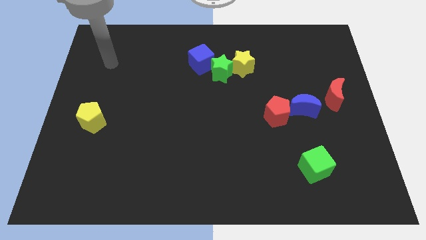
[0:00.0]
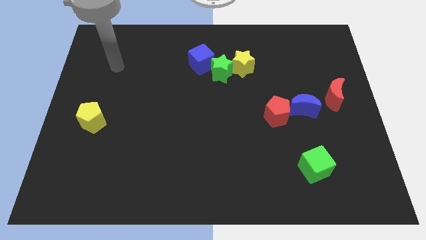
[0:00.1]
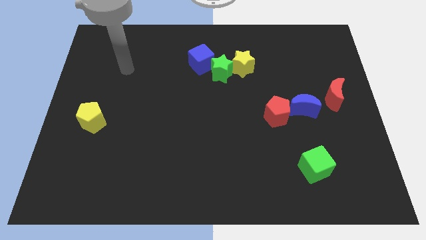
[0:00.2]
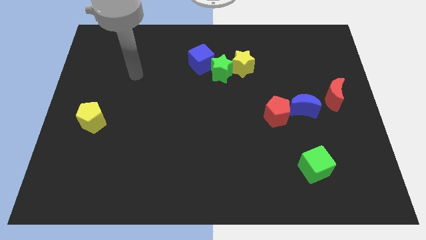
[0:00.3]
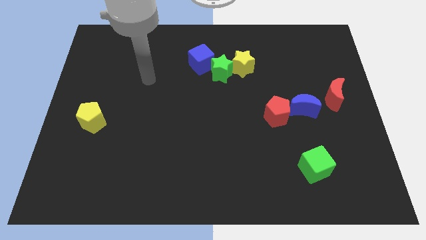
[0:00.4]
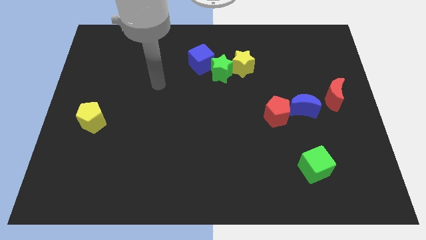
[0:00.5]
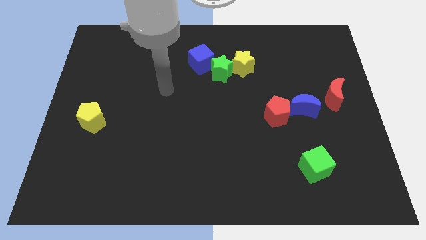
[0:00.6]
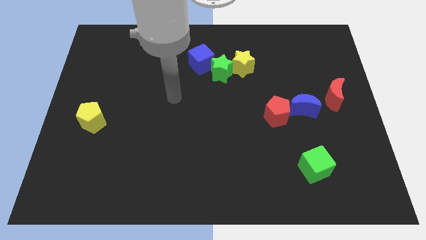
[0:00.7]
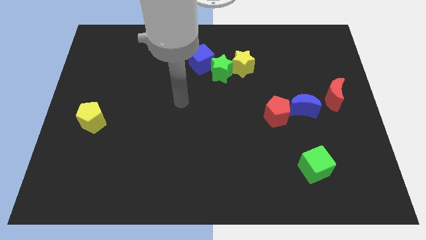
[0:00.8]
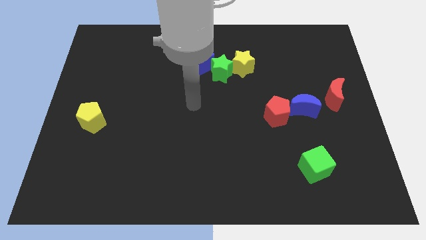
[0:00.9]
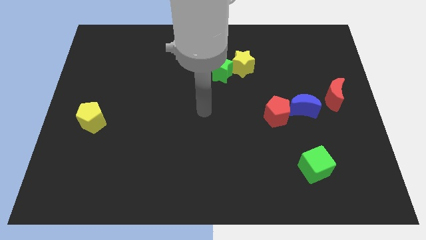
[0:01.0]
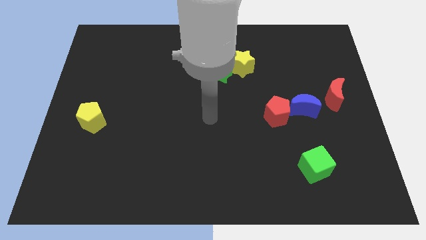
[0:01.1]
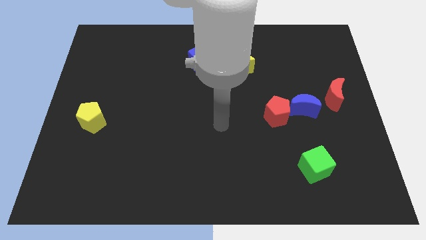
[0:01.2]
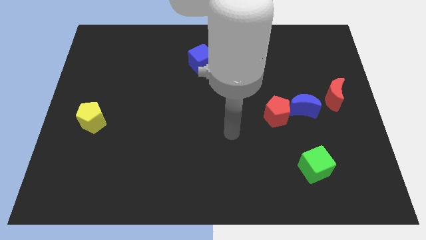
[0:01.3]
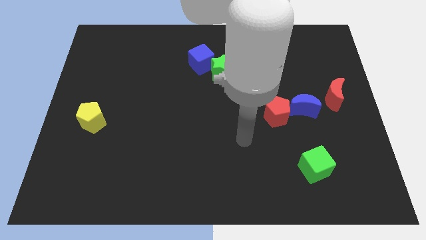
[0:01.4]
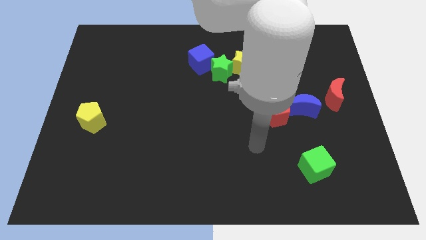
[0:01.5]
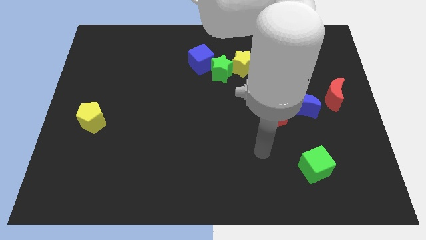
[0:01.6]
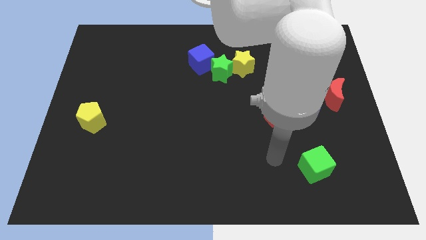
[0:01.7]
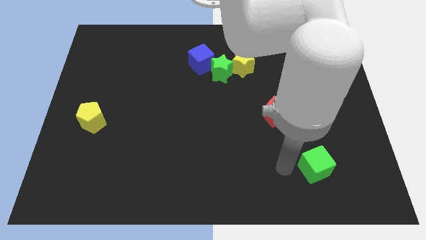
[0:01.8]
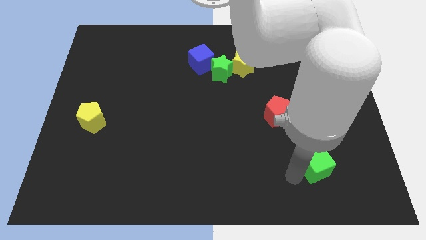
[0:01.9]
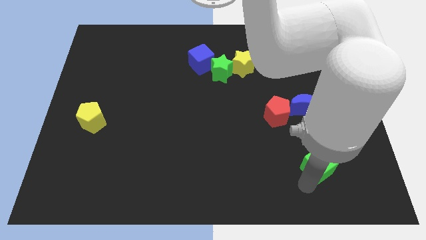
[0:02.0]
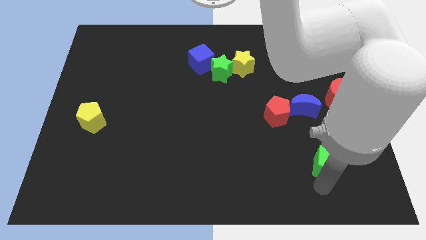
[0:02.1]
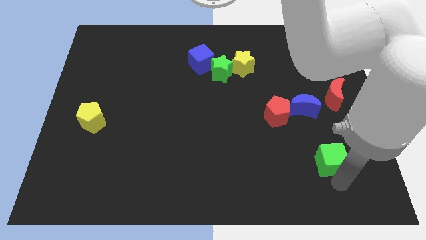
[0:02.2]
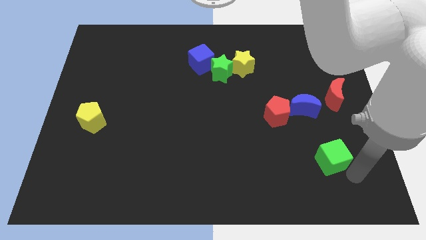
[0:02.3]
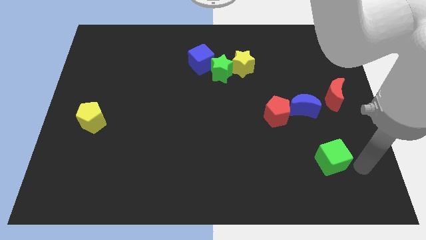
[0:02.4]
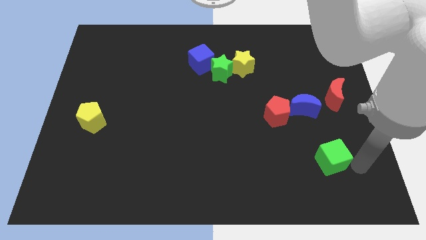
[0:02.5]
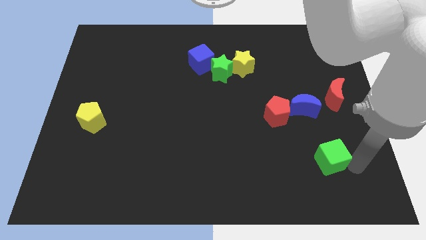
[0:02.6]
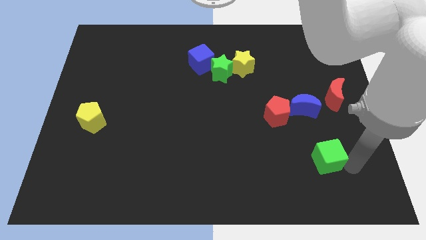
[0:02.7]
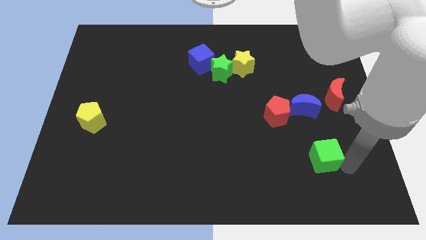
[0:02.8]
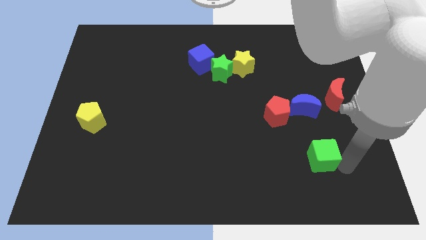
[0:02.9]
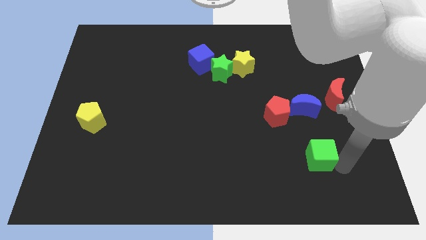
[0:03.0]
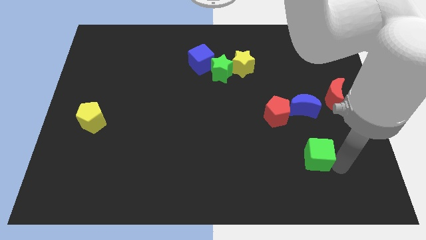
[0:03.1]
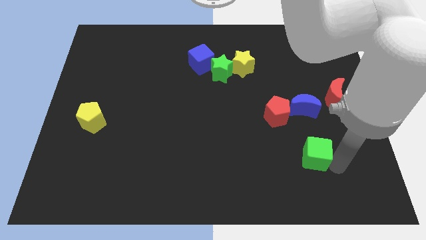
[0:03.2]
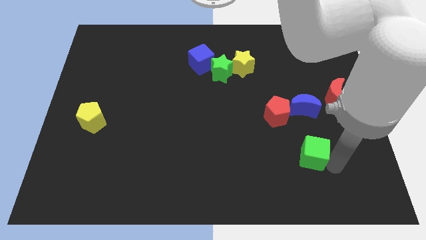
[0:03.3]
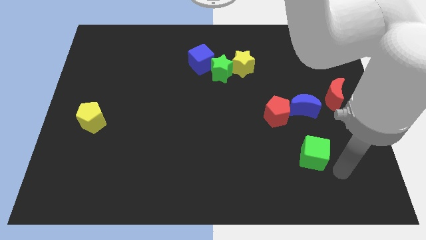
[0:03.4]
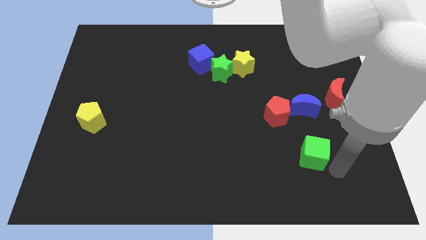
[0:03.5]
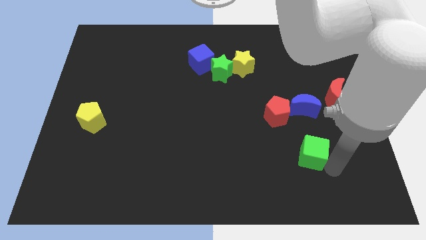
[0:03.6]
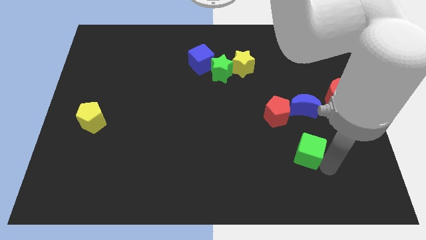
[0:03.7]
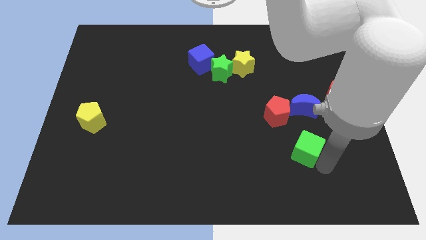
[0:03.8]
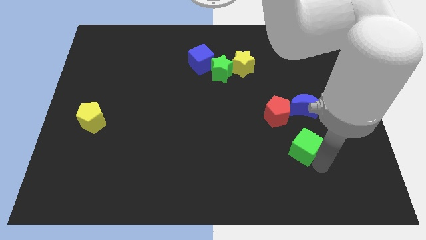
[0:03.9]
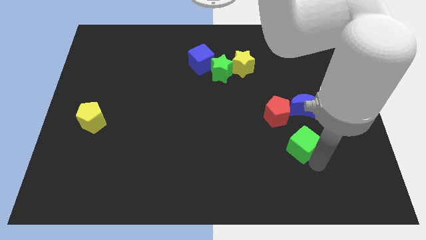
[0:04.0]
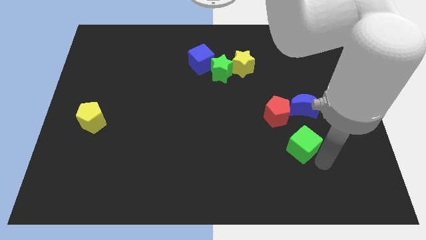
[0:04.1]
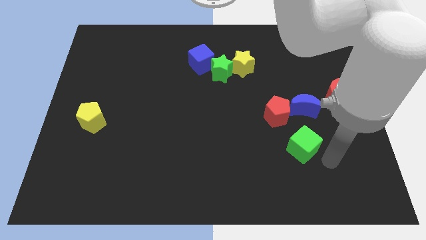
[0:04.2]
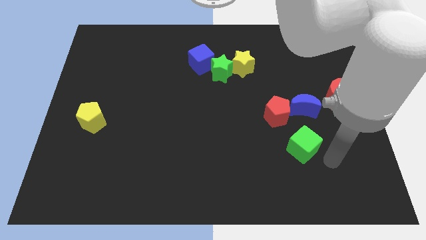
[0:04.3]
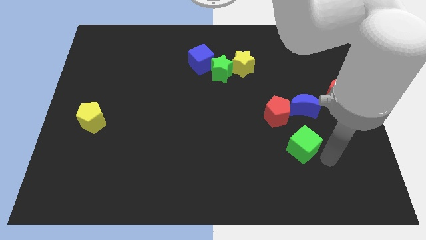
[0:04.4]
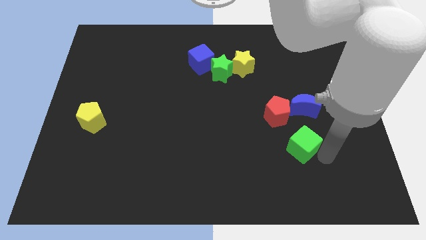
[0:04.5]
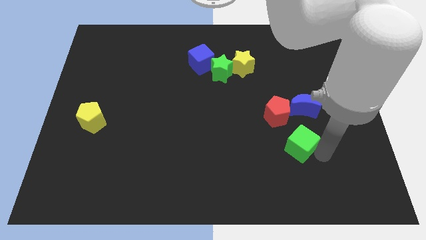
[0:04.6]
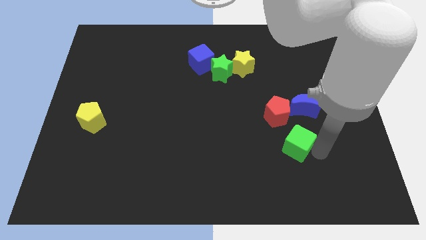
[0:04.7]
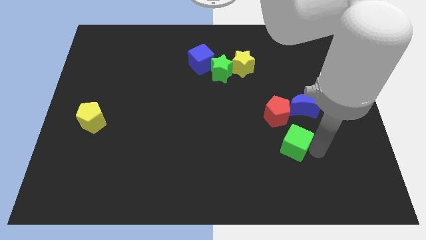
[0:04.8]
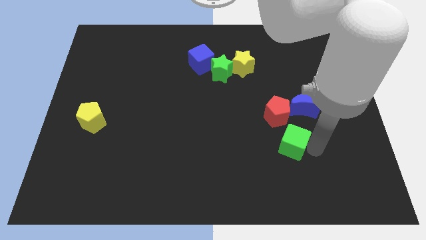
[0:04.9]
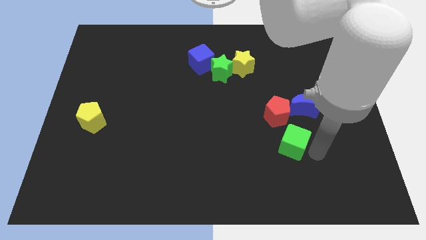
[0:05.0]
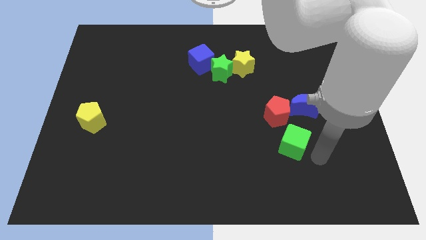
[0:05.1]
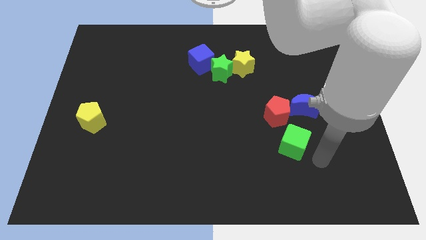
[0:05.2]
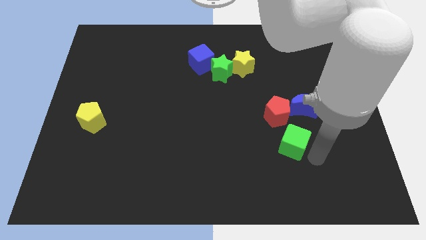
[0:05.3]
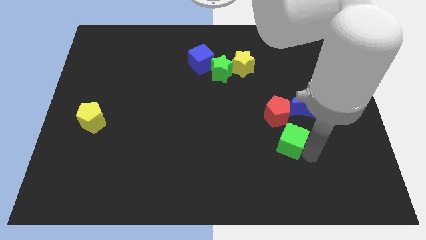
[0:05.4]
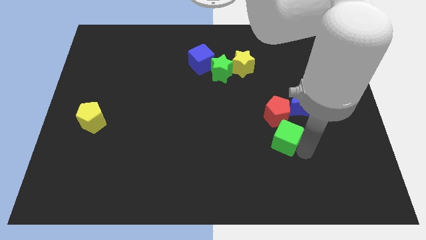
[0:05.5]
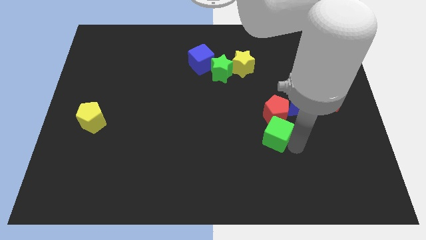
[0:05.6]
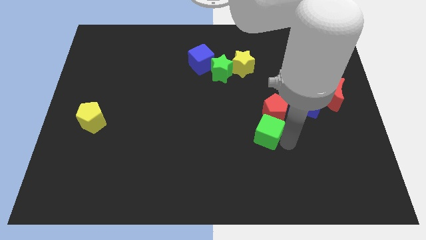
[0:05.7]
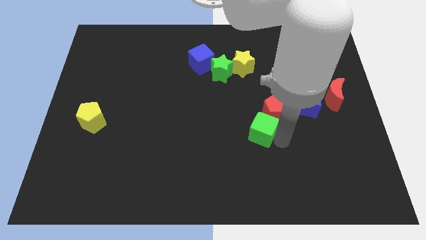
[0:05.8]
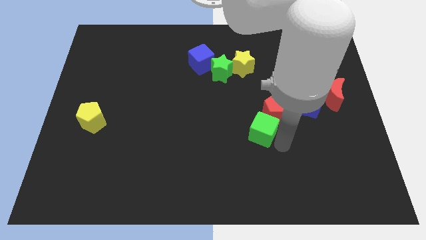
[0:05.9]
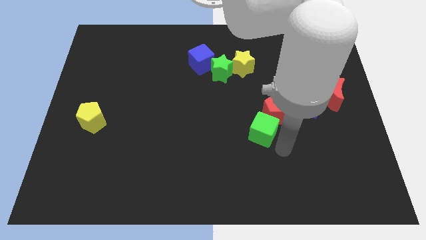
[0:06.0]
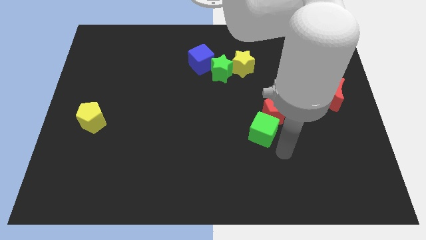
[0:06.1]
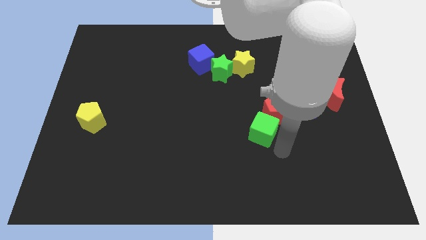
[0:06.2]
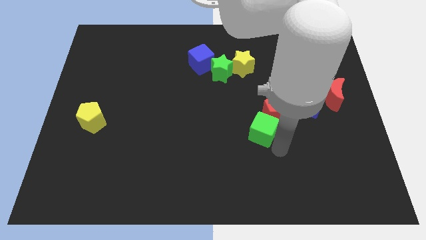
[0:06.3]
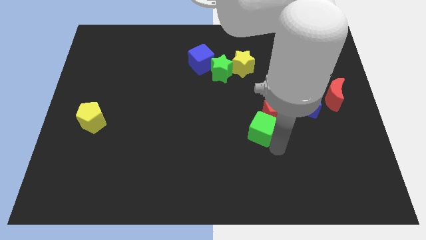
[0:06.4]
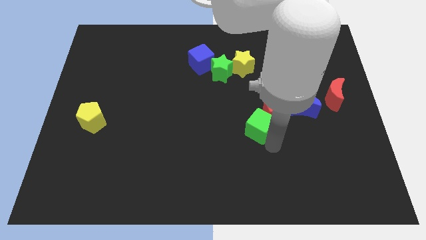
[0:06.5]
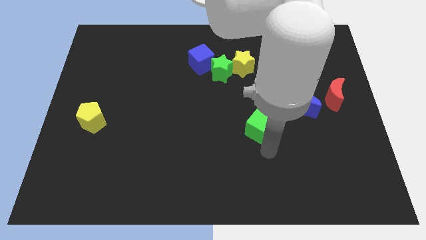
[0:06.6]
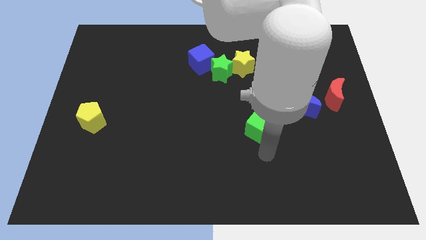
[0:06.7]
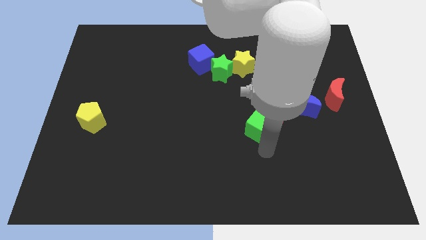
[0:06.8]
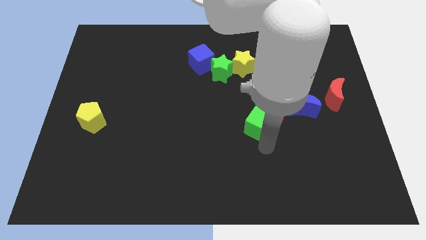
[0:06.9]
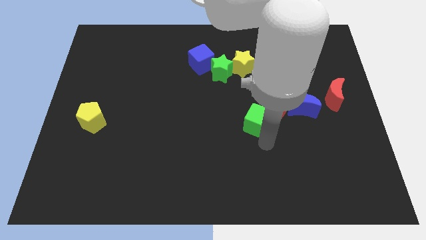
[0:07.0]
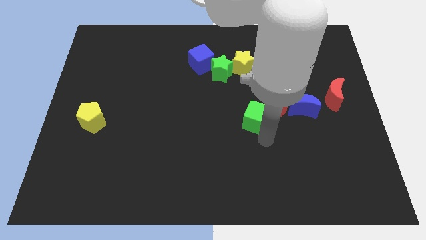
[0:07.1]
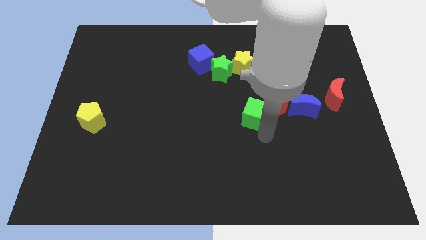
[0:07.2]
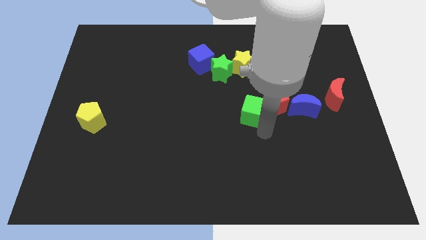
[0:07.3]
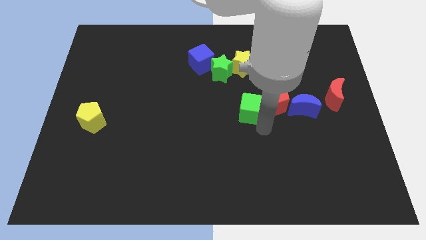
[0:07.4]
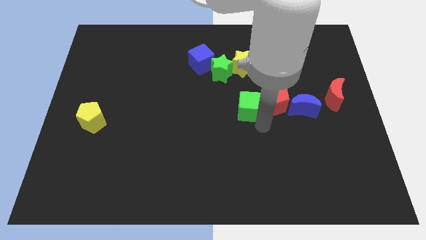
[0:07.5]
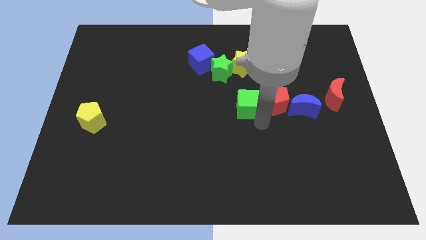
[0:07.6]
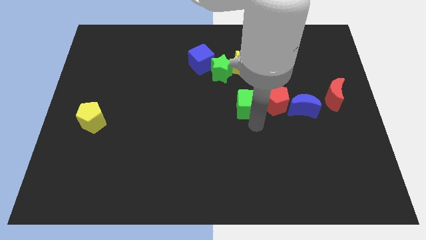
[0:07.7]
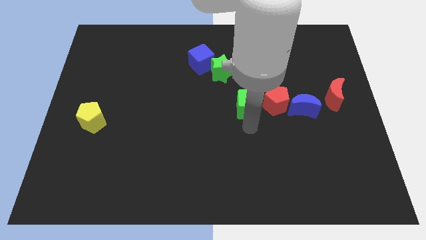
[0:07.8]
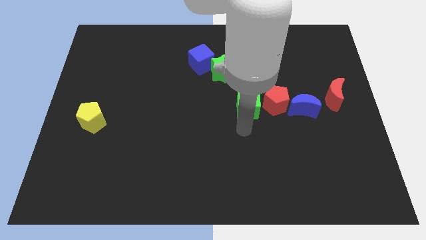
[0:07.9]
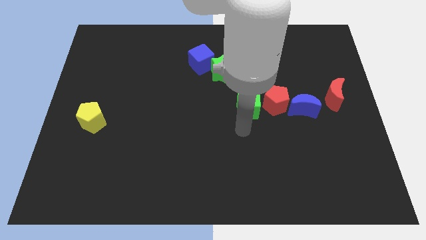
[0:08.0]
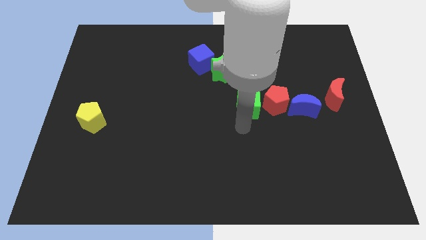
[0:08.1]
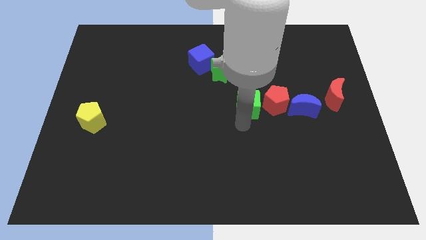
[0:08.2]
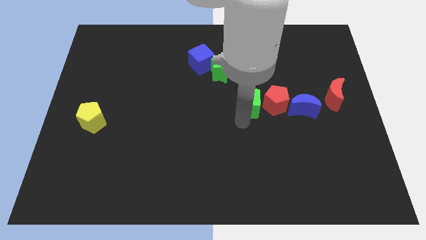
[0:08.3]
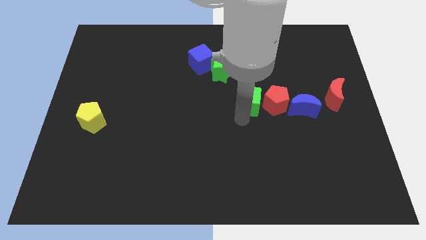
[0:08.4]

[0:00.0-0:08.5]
slide the green cube to the top left side of the red pentagon
